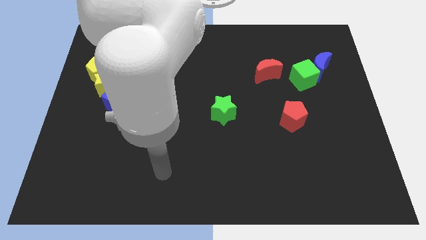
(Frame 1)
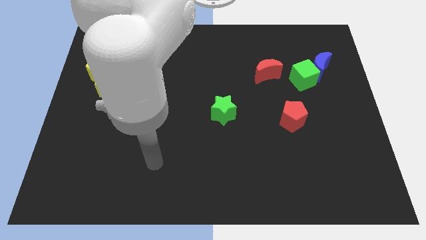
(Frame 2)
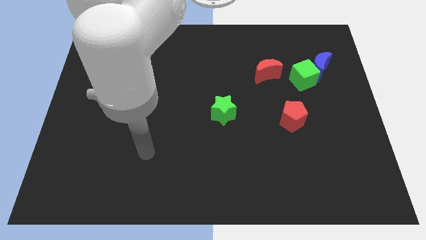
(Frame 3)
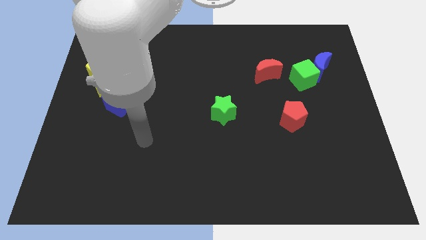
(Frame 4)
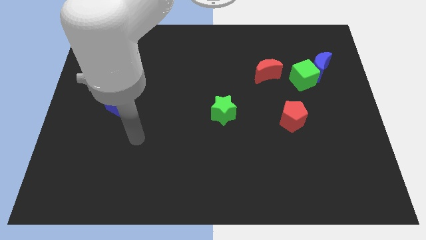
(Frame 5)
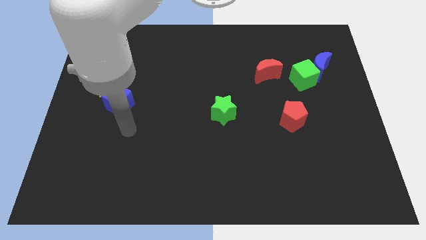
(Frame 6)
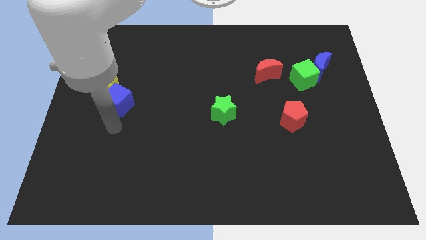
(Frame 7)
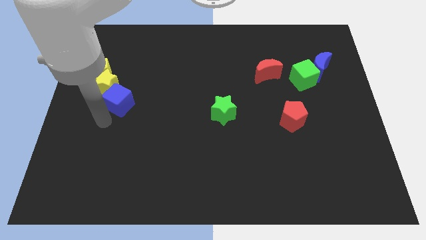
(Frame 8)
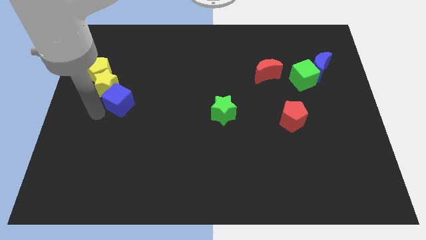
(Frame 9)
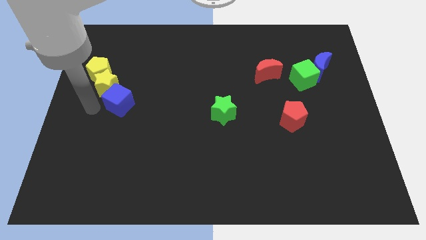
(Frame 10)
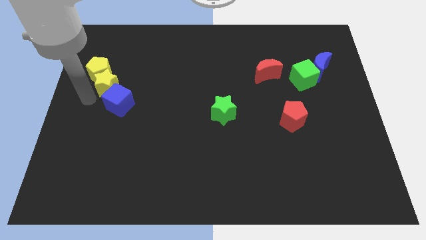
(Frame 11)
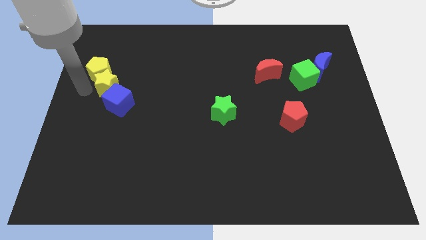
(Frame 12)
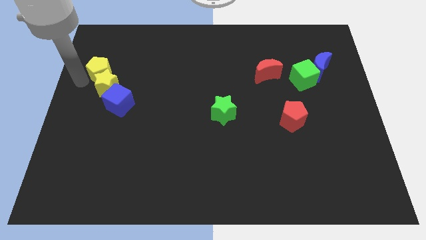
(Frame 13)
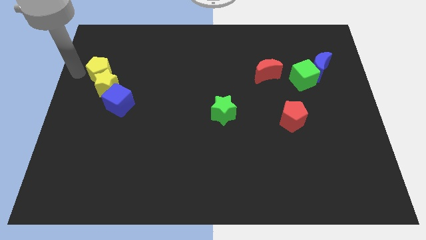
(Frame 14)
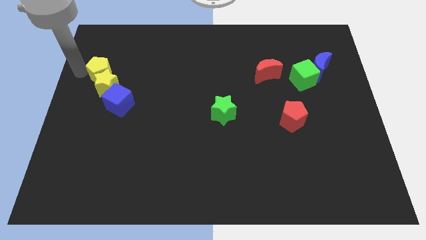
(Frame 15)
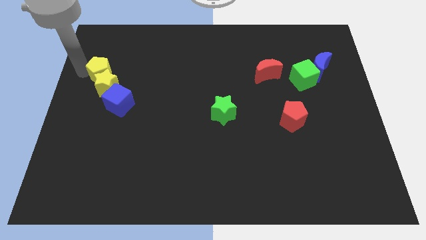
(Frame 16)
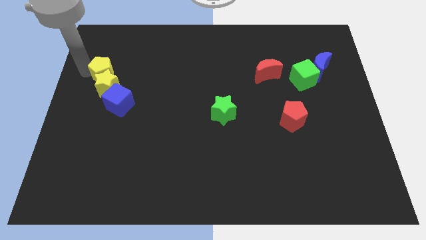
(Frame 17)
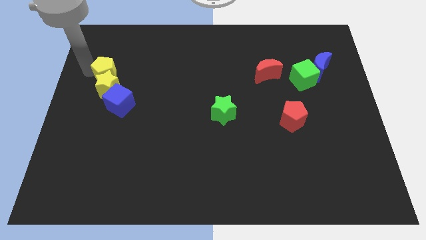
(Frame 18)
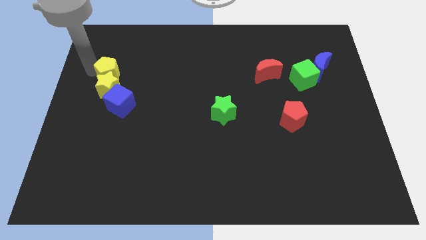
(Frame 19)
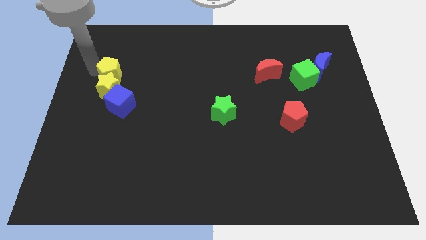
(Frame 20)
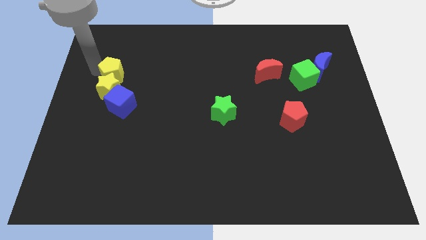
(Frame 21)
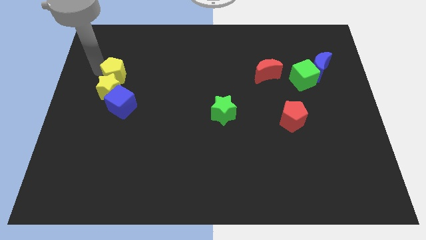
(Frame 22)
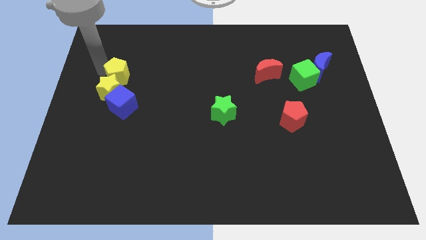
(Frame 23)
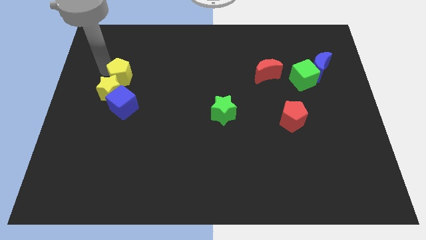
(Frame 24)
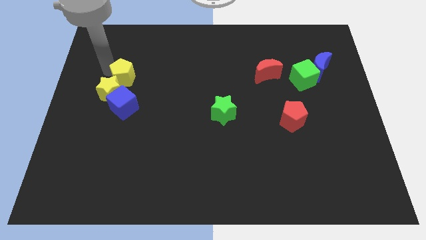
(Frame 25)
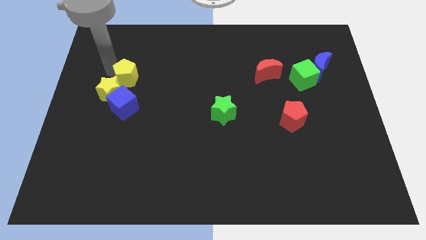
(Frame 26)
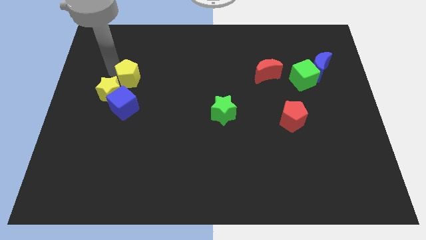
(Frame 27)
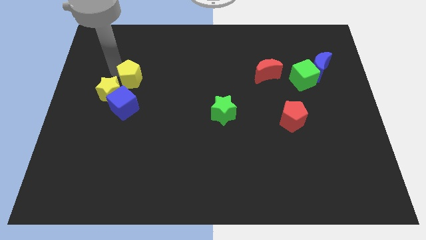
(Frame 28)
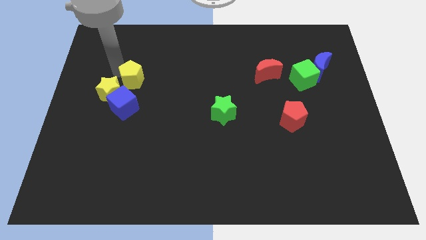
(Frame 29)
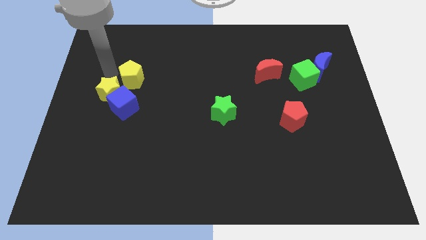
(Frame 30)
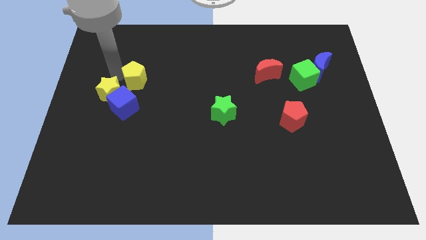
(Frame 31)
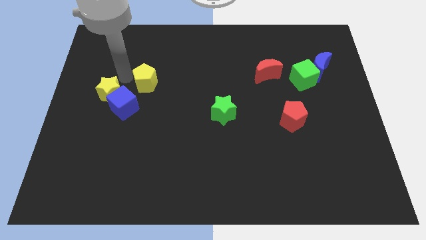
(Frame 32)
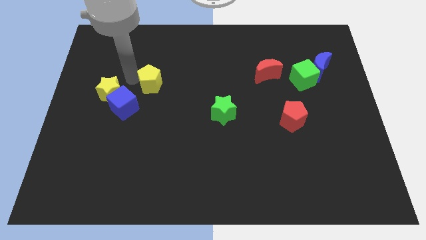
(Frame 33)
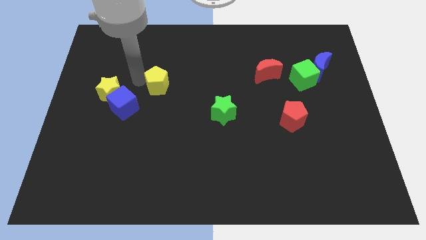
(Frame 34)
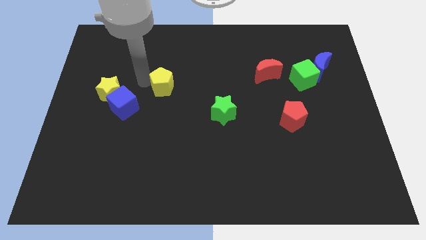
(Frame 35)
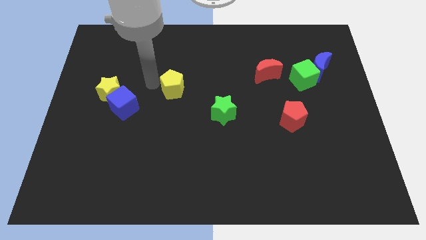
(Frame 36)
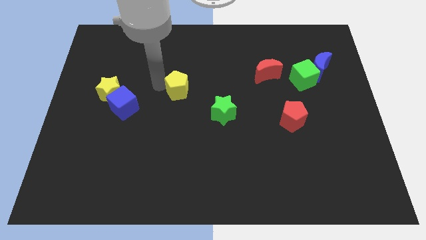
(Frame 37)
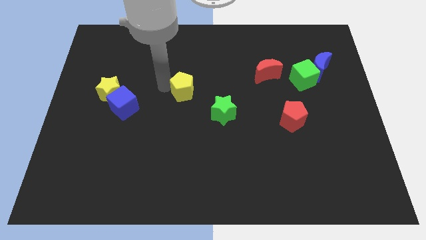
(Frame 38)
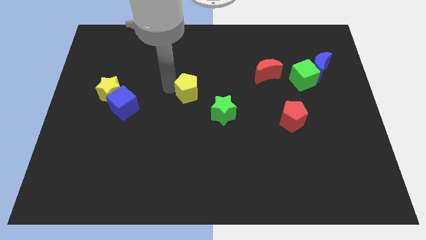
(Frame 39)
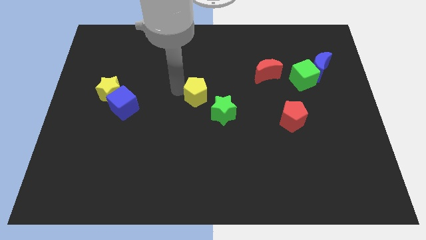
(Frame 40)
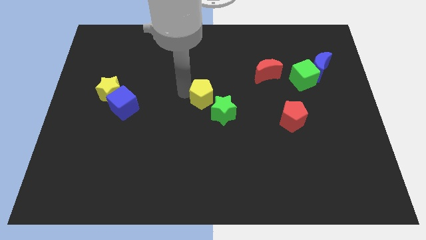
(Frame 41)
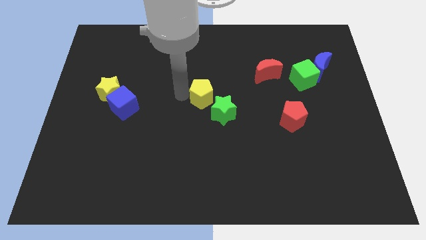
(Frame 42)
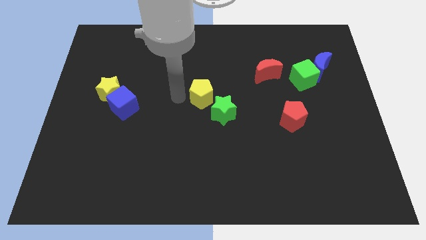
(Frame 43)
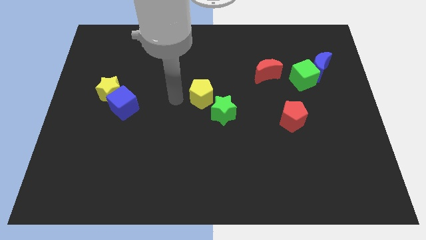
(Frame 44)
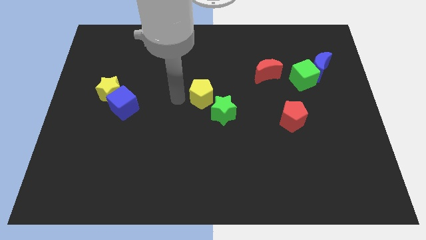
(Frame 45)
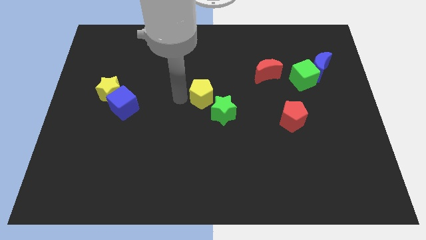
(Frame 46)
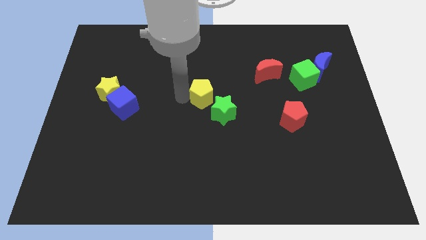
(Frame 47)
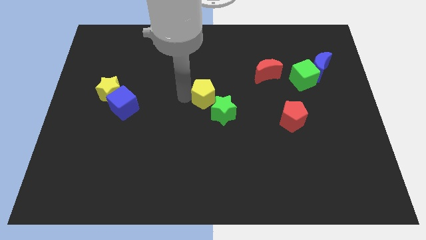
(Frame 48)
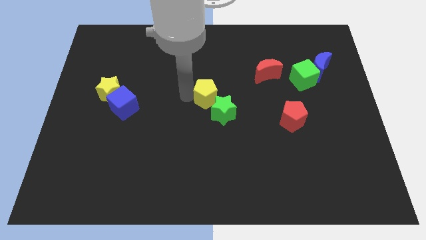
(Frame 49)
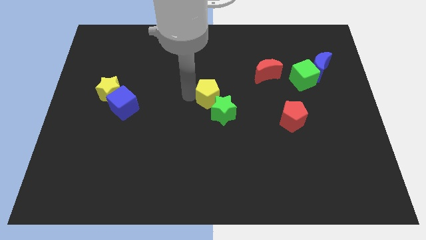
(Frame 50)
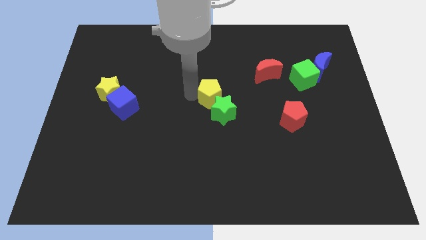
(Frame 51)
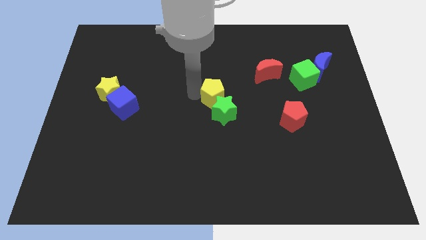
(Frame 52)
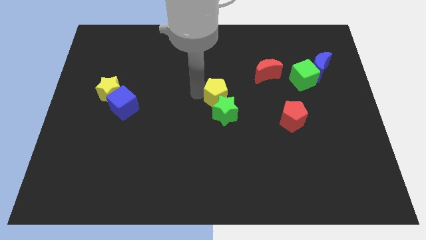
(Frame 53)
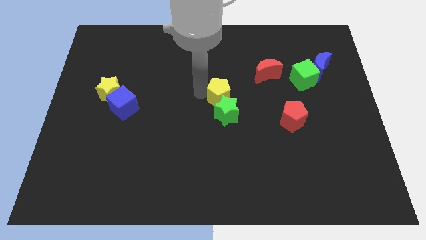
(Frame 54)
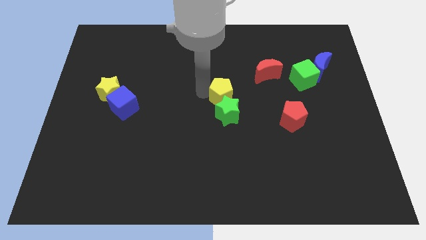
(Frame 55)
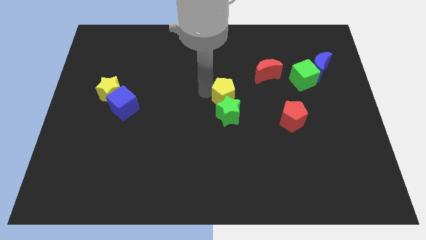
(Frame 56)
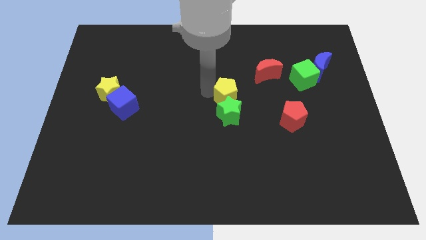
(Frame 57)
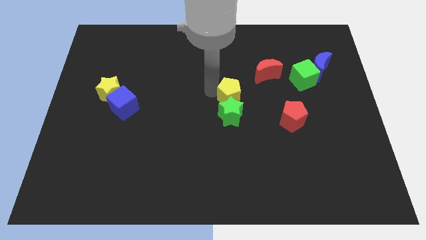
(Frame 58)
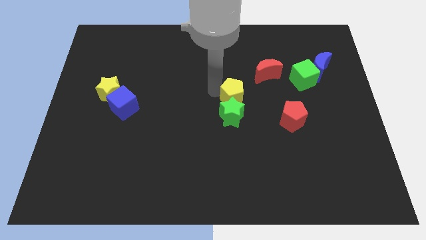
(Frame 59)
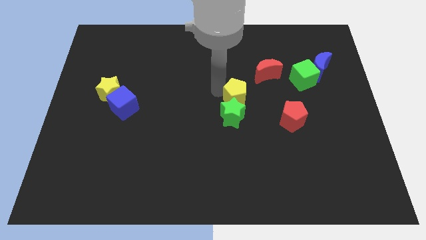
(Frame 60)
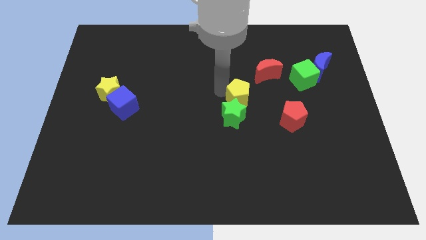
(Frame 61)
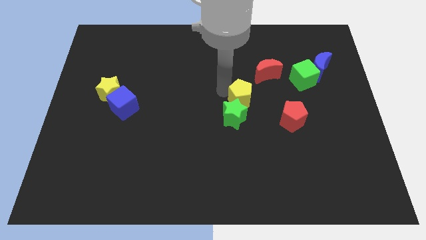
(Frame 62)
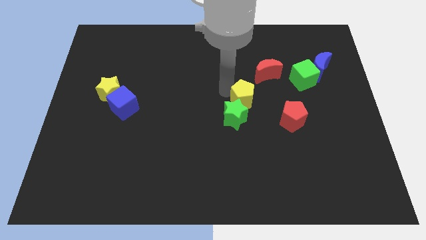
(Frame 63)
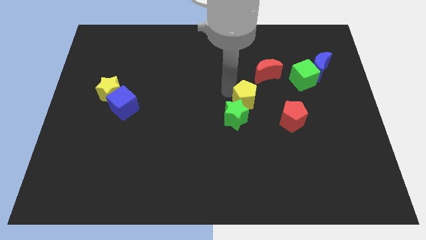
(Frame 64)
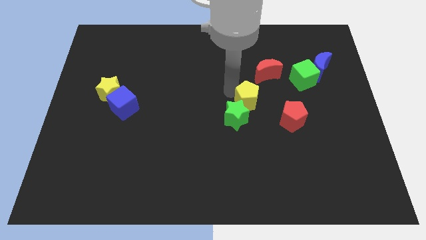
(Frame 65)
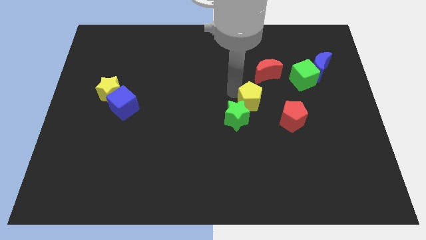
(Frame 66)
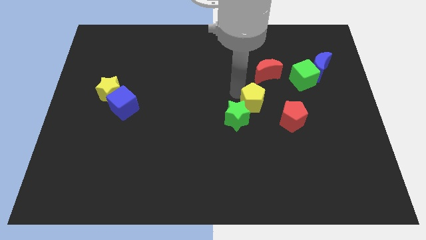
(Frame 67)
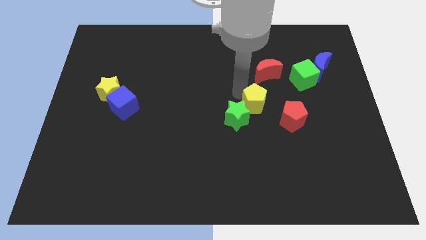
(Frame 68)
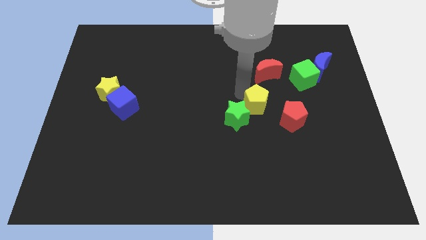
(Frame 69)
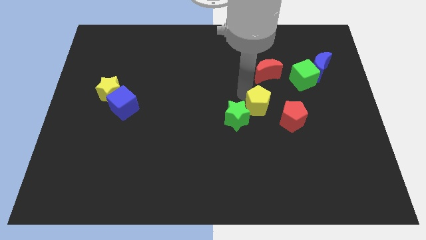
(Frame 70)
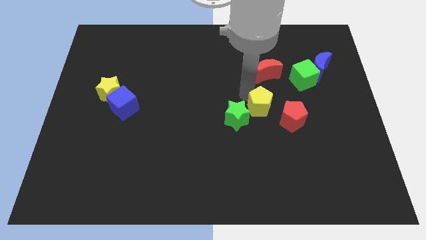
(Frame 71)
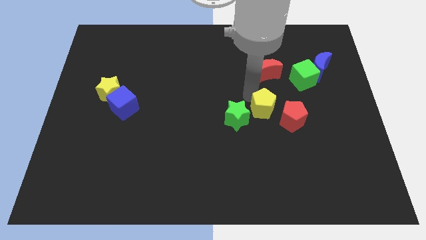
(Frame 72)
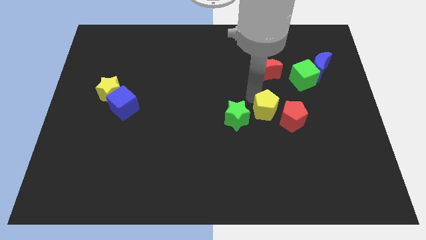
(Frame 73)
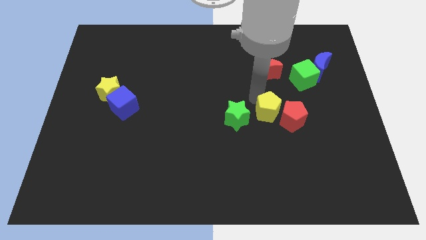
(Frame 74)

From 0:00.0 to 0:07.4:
slide the yellow pentagon to the red pentagon
